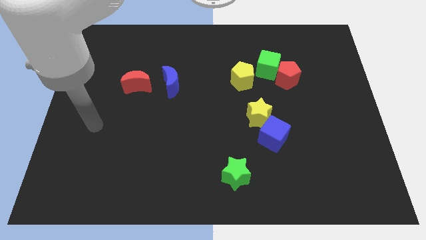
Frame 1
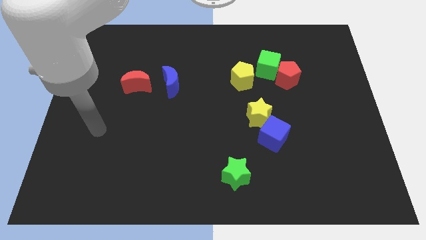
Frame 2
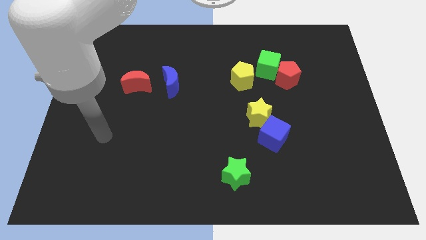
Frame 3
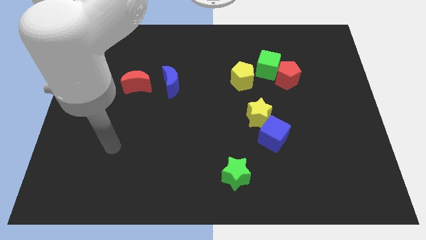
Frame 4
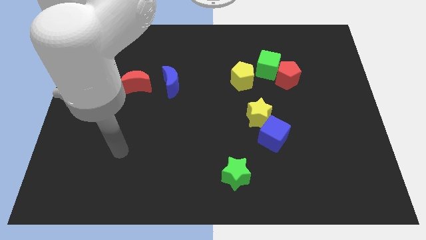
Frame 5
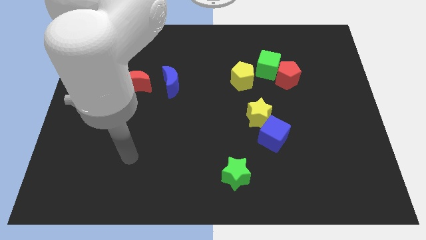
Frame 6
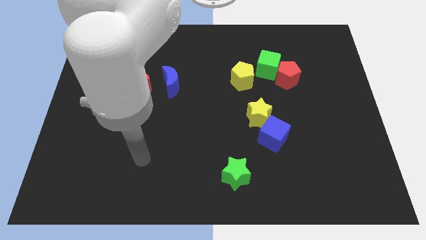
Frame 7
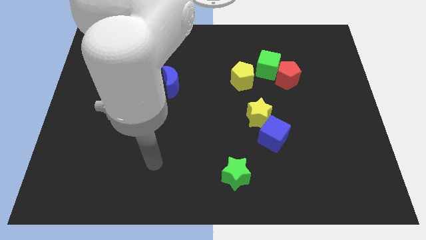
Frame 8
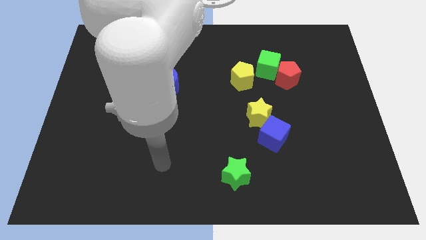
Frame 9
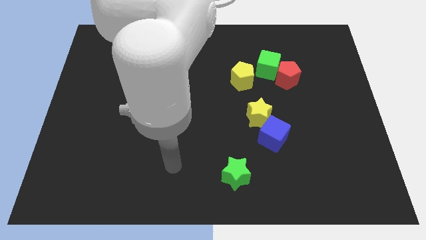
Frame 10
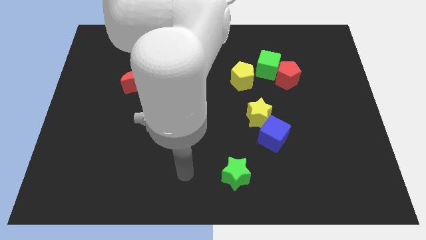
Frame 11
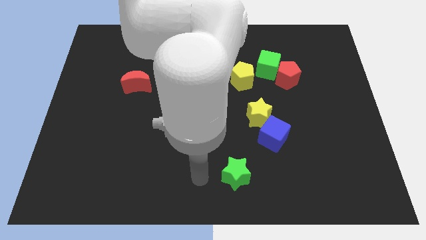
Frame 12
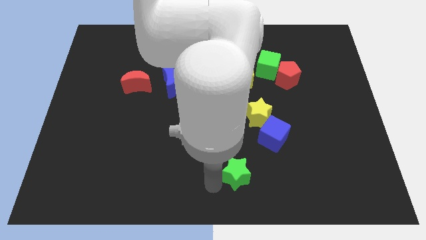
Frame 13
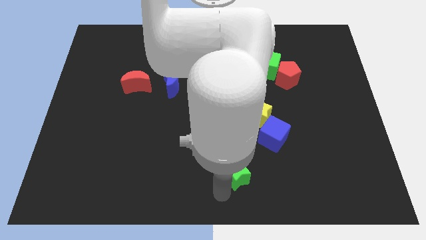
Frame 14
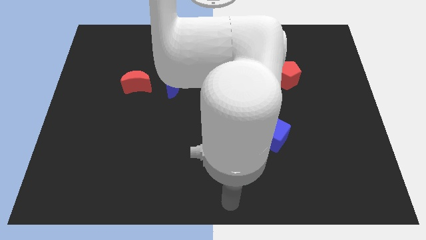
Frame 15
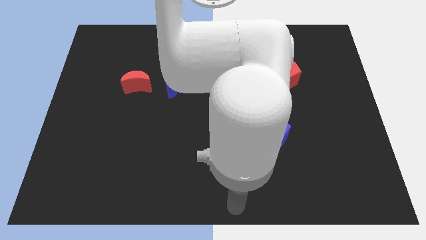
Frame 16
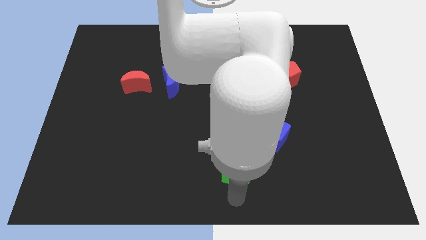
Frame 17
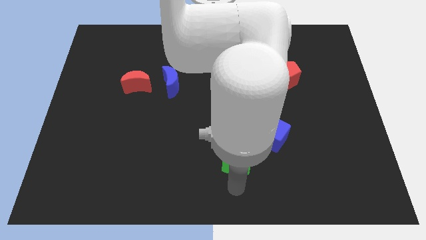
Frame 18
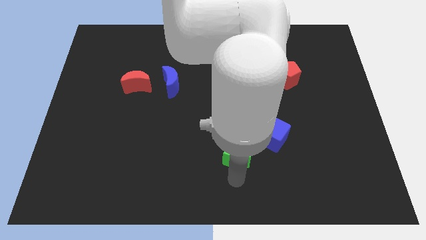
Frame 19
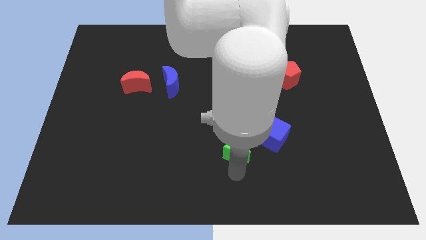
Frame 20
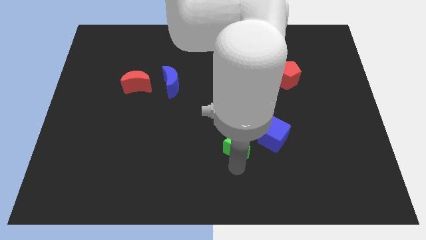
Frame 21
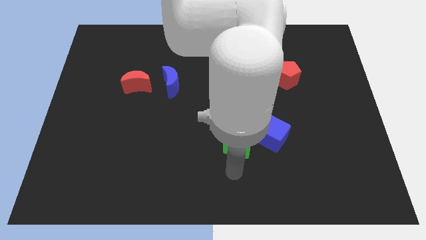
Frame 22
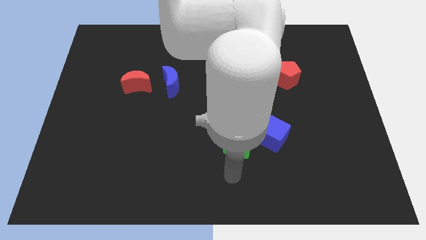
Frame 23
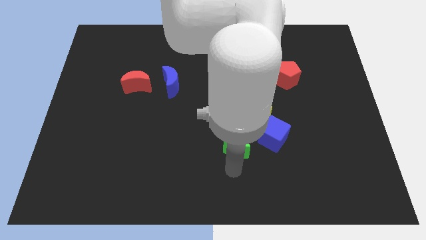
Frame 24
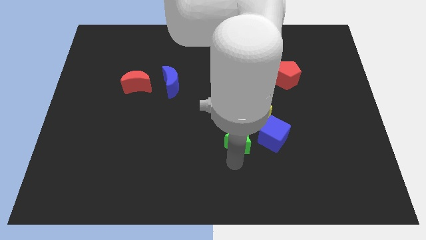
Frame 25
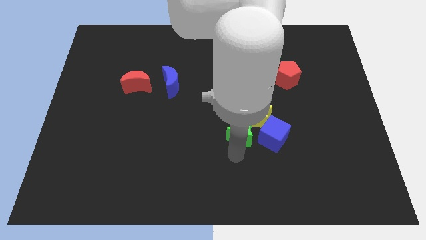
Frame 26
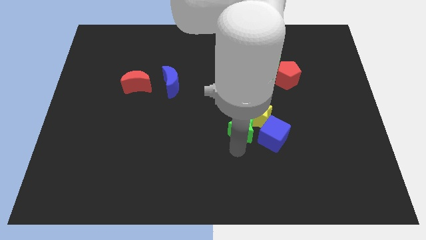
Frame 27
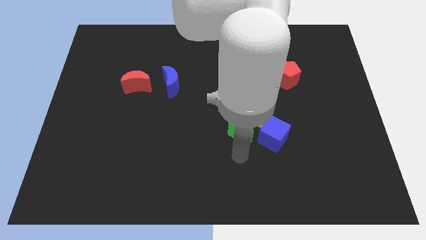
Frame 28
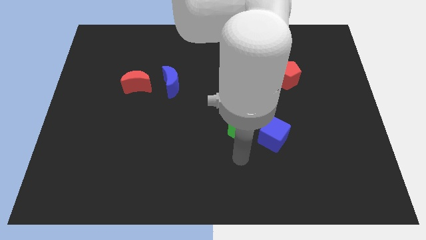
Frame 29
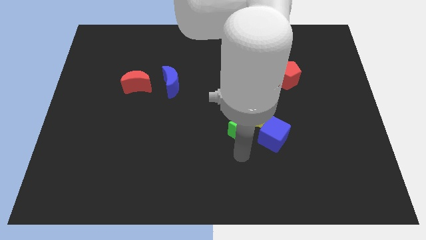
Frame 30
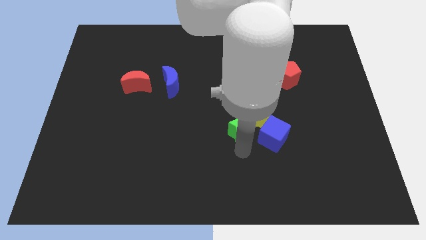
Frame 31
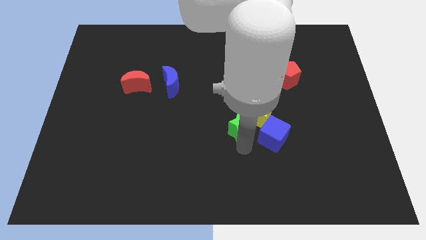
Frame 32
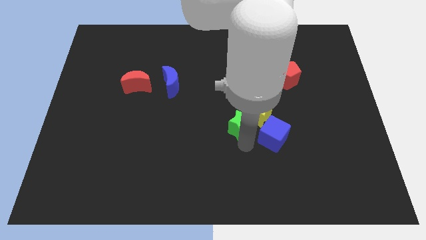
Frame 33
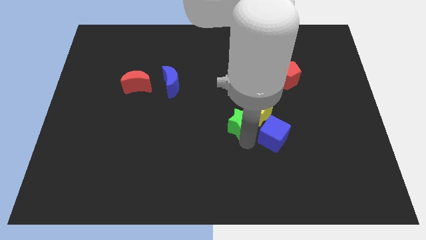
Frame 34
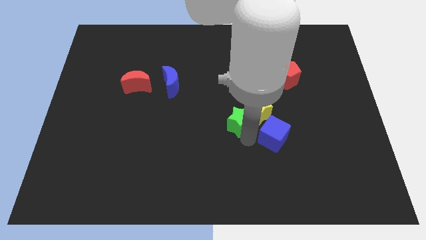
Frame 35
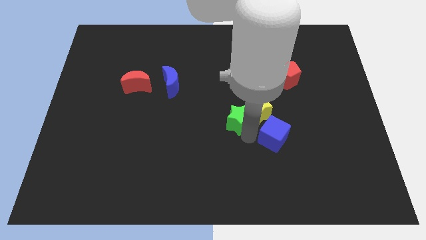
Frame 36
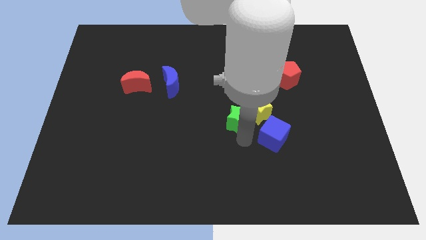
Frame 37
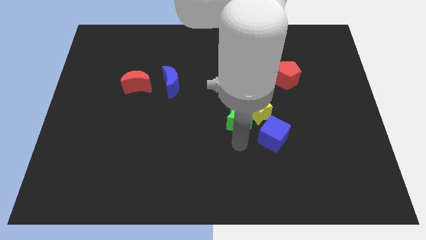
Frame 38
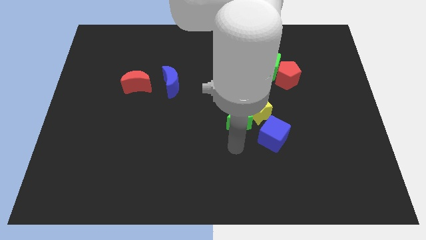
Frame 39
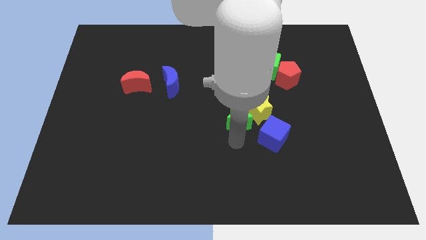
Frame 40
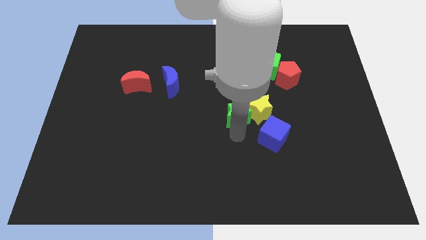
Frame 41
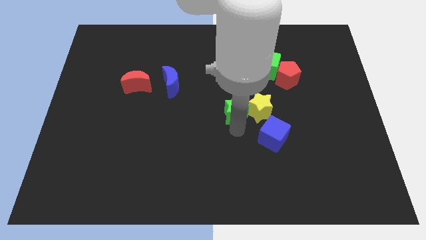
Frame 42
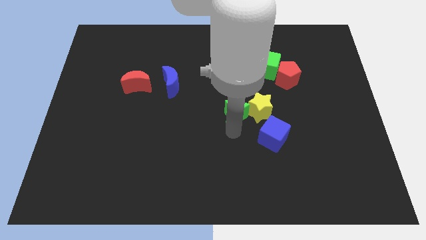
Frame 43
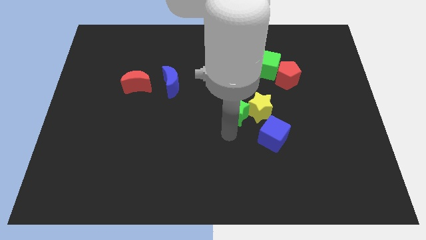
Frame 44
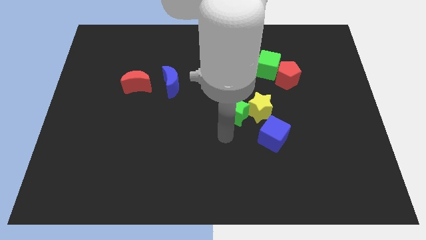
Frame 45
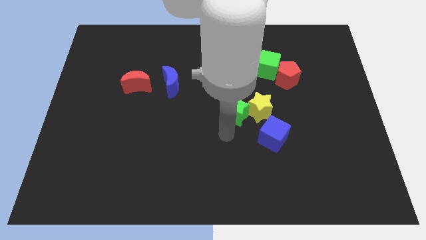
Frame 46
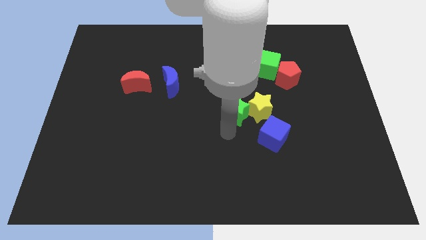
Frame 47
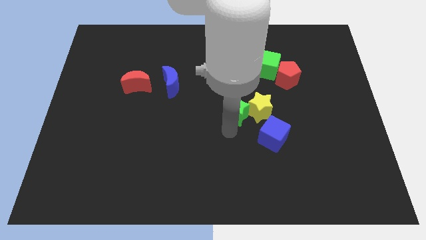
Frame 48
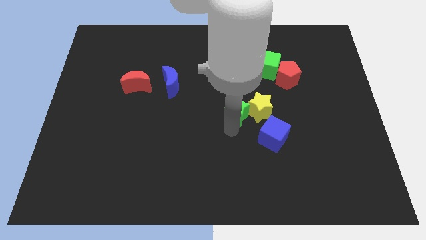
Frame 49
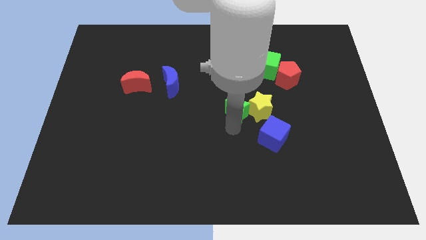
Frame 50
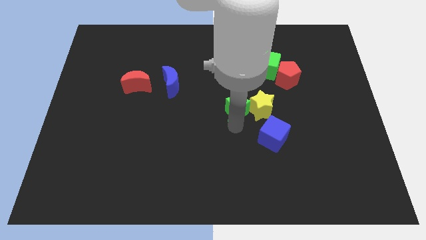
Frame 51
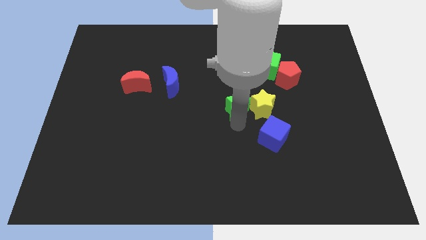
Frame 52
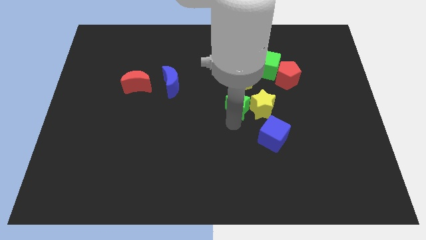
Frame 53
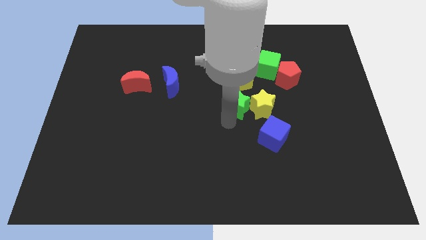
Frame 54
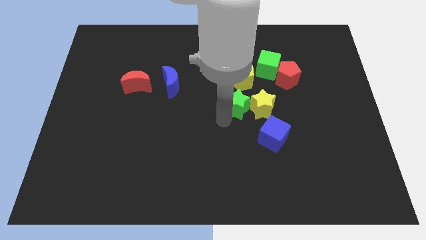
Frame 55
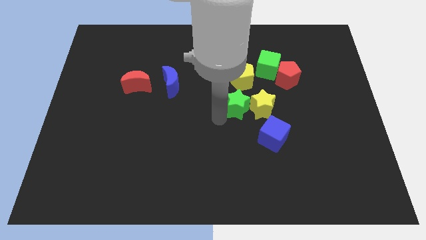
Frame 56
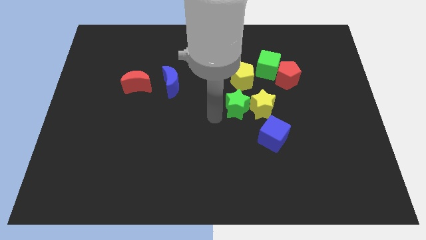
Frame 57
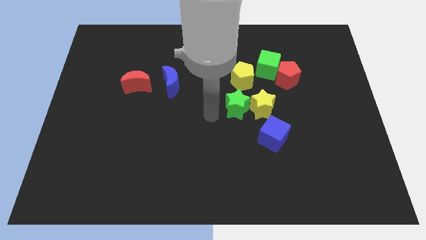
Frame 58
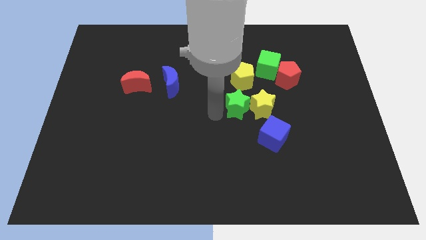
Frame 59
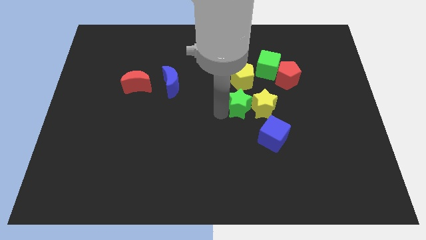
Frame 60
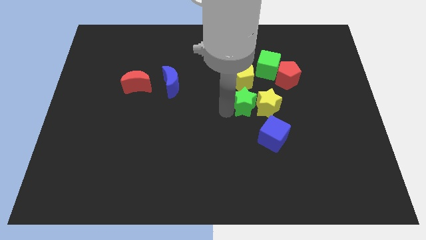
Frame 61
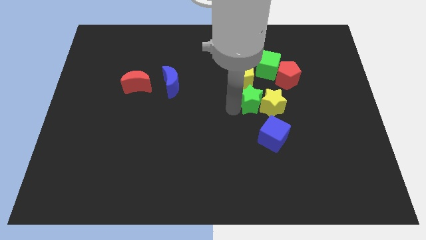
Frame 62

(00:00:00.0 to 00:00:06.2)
put the green star to the bottom of the green cube
